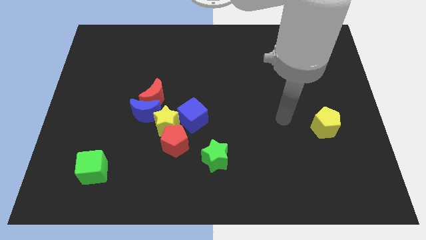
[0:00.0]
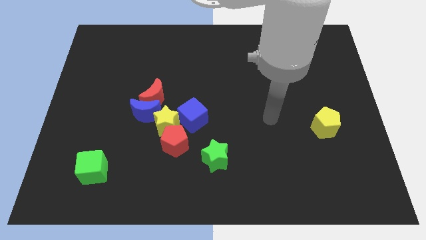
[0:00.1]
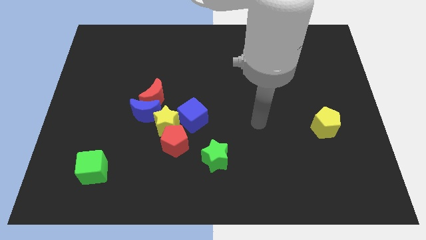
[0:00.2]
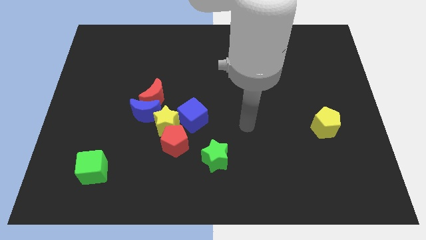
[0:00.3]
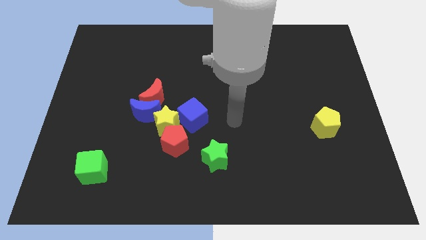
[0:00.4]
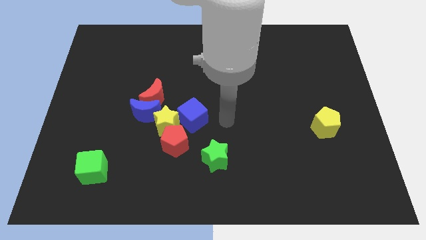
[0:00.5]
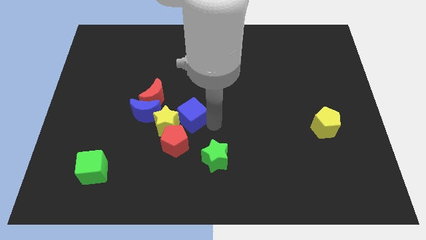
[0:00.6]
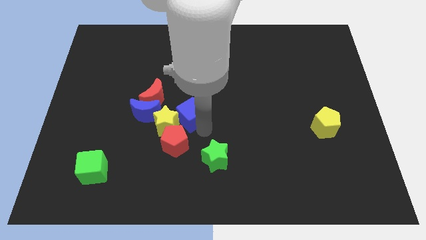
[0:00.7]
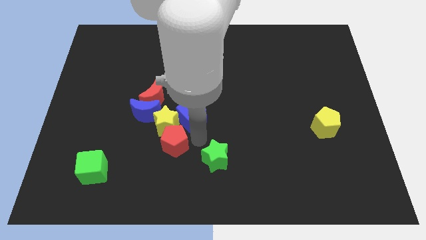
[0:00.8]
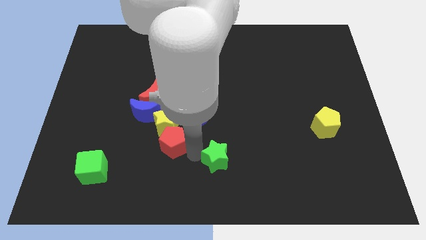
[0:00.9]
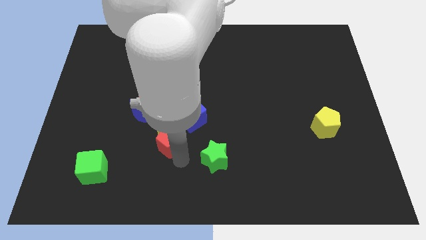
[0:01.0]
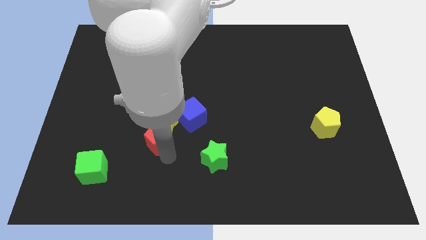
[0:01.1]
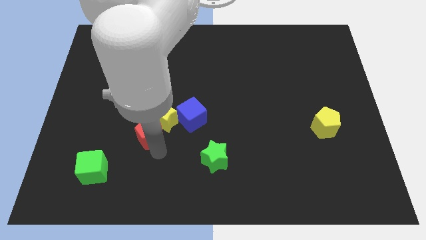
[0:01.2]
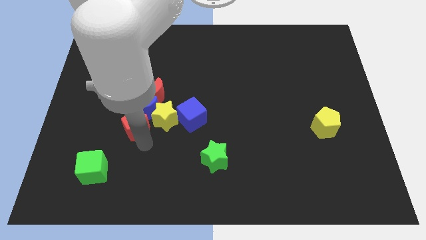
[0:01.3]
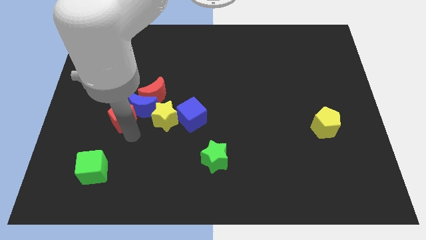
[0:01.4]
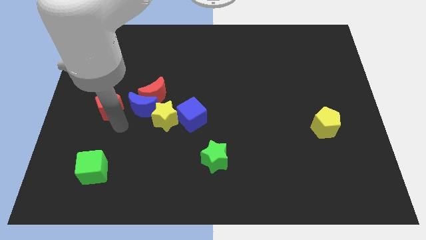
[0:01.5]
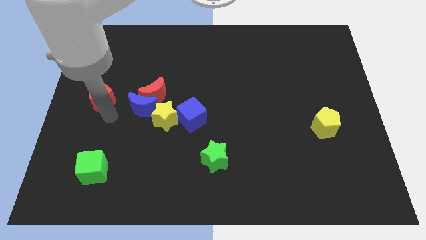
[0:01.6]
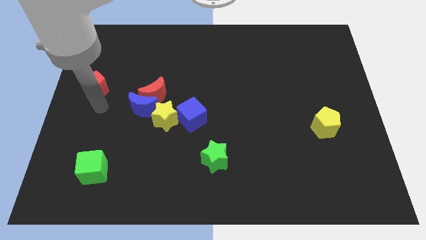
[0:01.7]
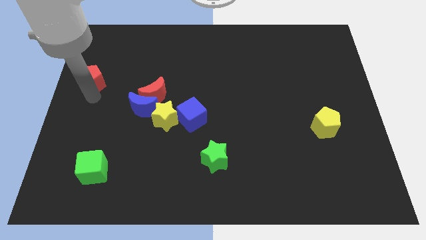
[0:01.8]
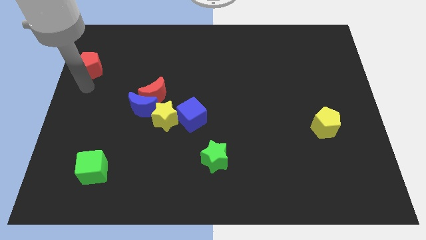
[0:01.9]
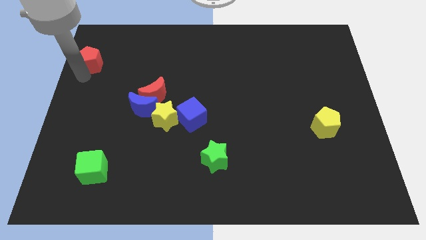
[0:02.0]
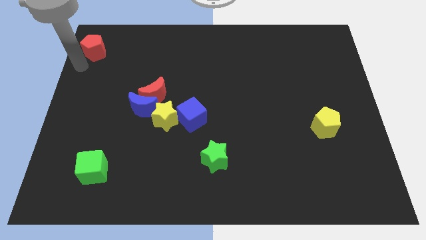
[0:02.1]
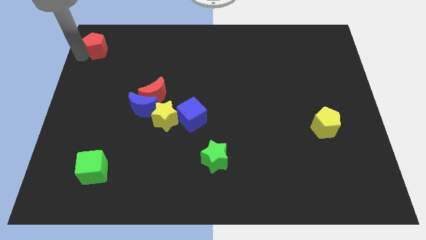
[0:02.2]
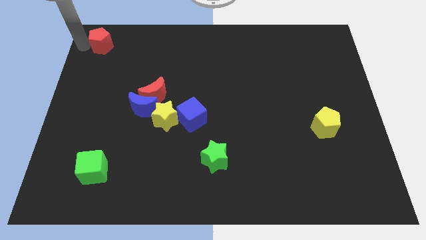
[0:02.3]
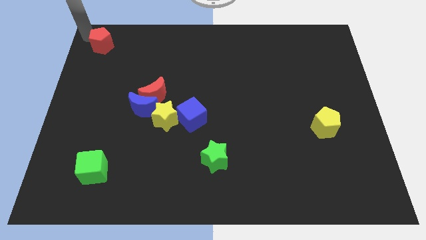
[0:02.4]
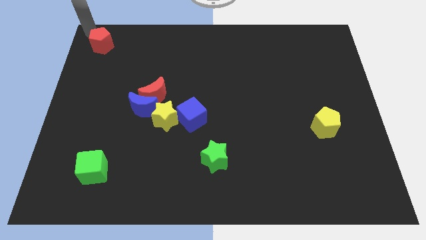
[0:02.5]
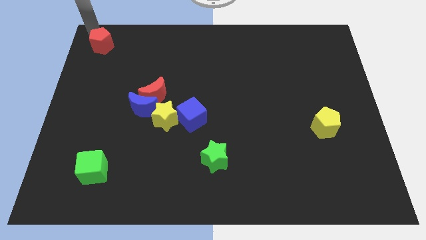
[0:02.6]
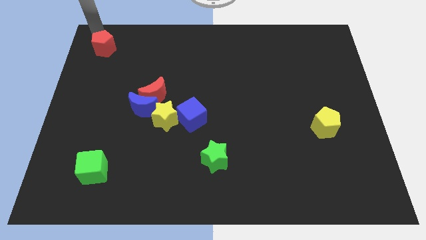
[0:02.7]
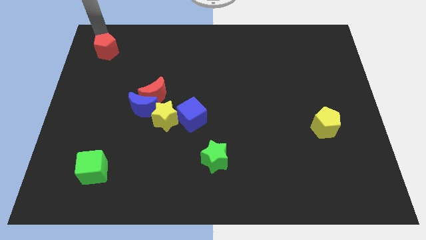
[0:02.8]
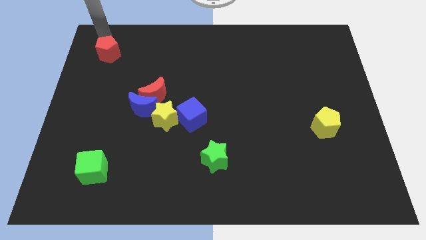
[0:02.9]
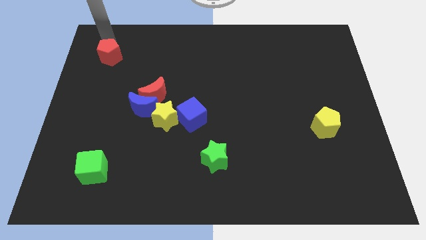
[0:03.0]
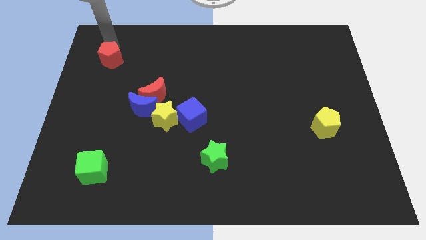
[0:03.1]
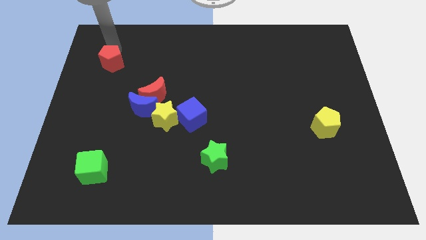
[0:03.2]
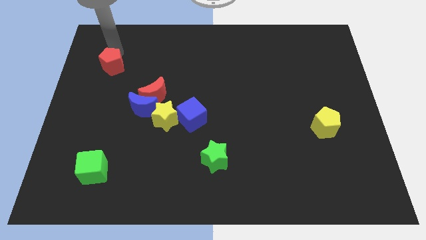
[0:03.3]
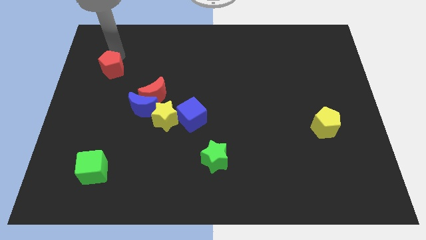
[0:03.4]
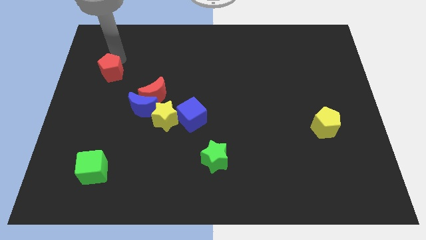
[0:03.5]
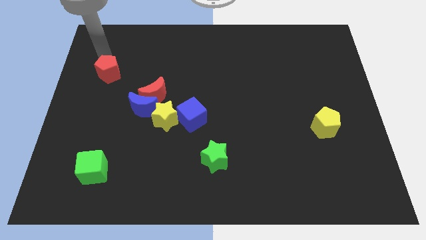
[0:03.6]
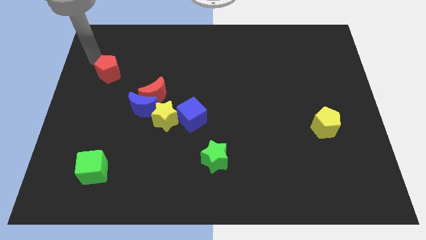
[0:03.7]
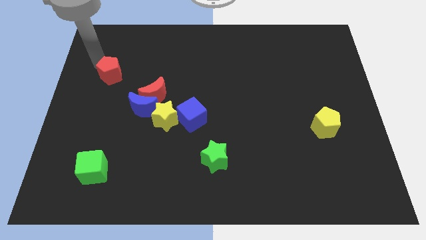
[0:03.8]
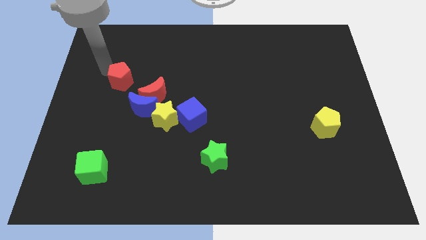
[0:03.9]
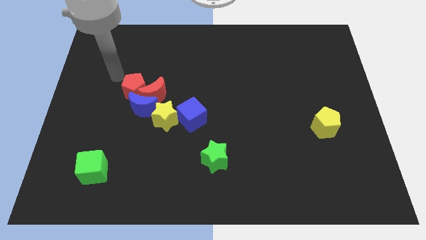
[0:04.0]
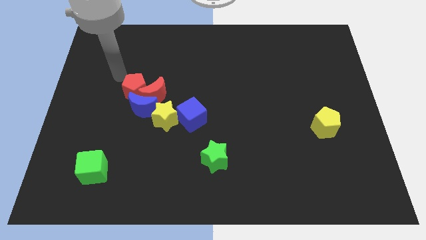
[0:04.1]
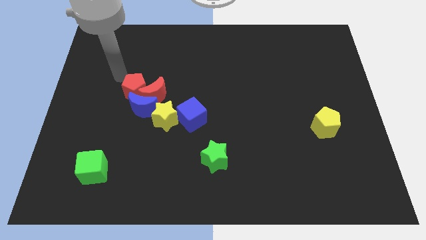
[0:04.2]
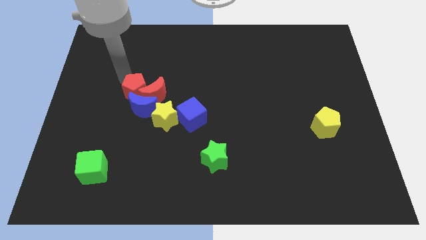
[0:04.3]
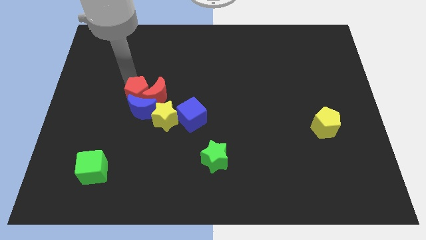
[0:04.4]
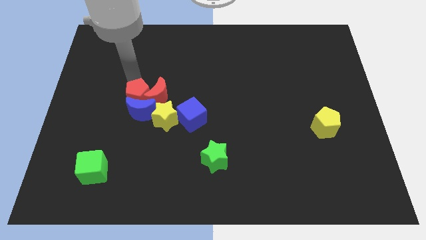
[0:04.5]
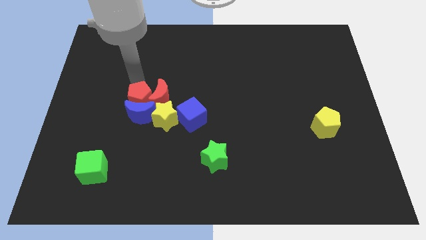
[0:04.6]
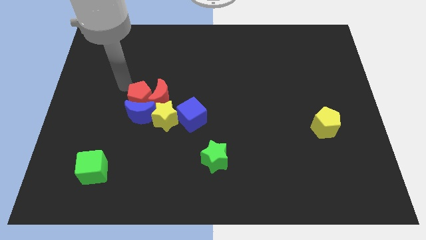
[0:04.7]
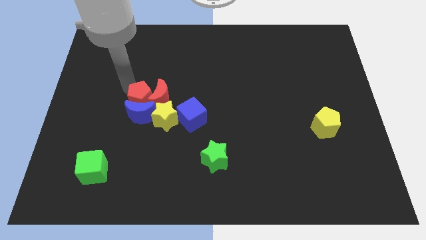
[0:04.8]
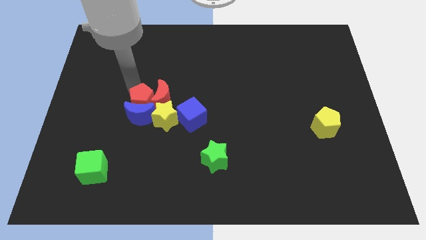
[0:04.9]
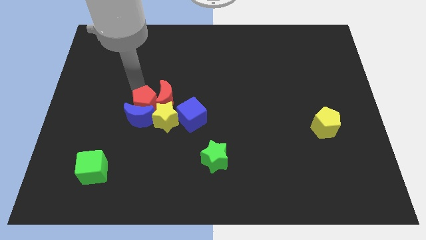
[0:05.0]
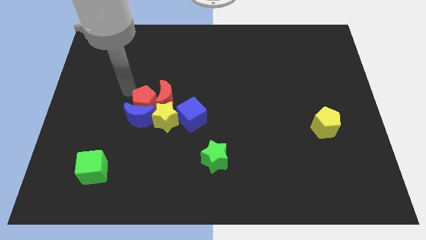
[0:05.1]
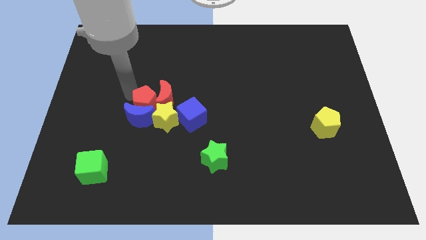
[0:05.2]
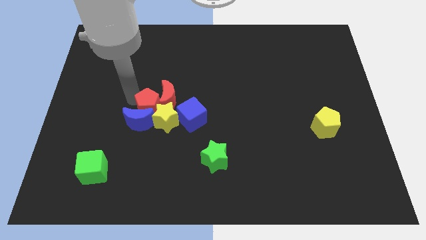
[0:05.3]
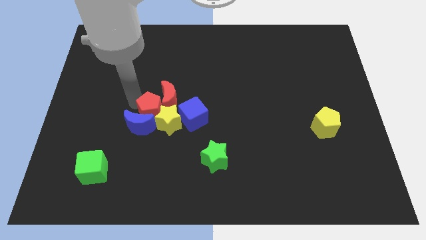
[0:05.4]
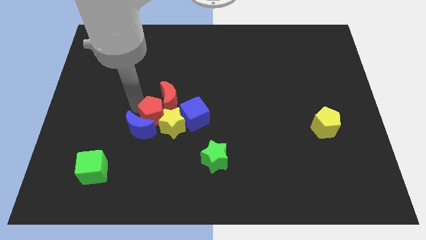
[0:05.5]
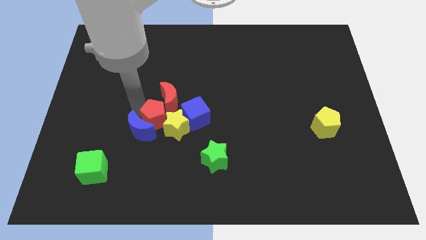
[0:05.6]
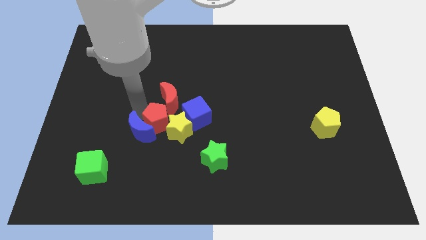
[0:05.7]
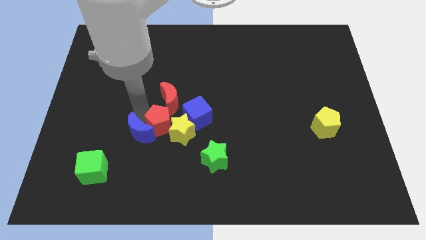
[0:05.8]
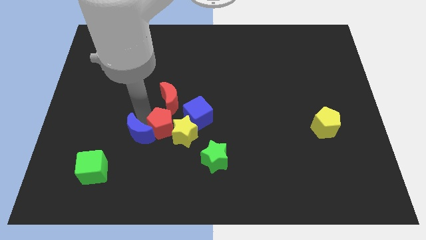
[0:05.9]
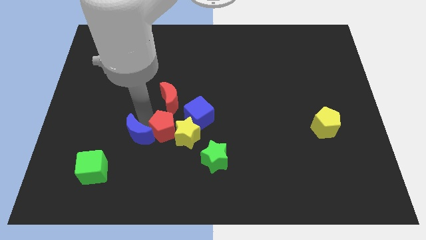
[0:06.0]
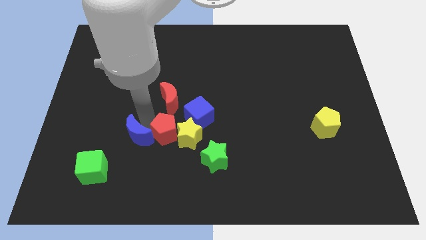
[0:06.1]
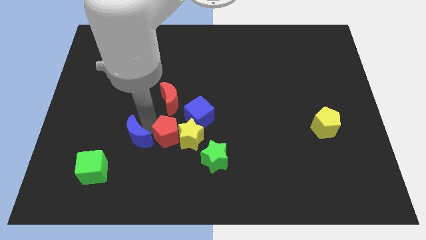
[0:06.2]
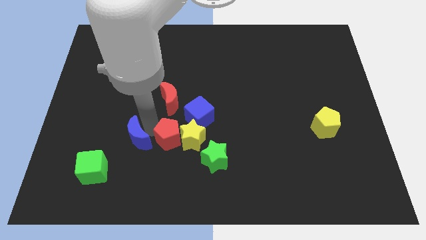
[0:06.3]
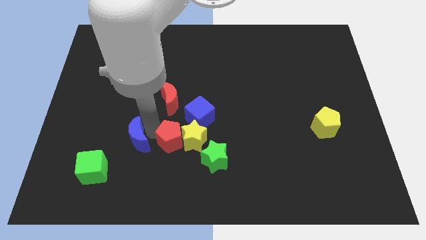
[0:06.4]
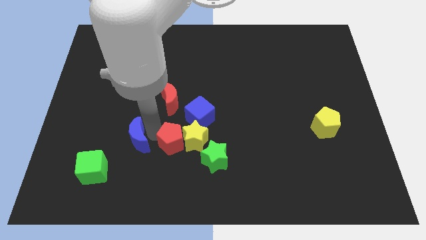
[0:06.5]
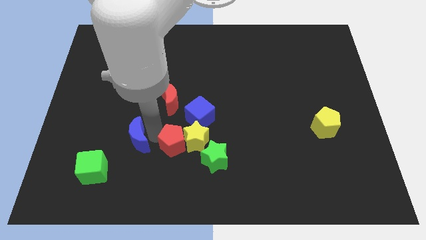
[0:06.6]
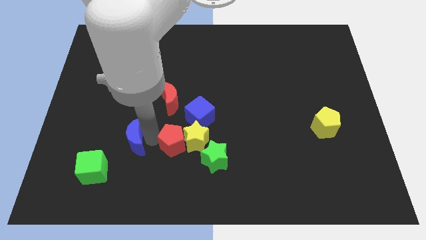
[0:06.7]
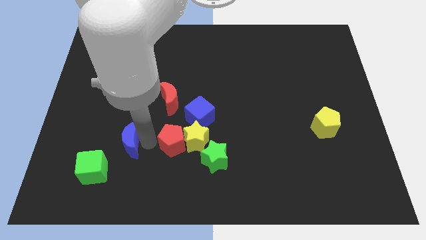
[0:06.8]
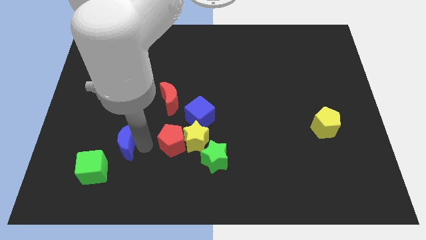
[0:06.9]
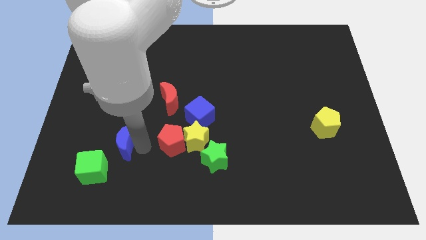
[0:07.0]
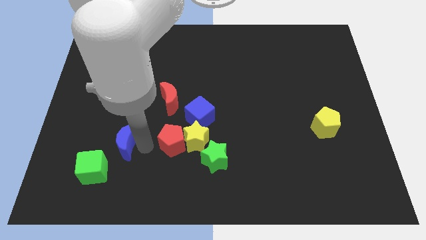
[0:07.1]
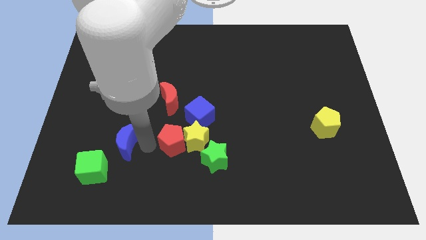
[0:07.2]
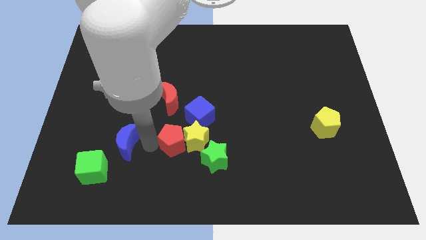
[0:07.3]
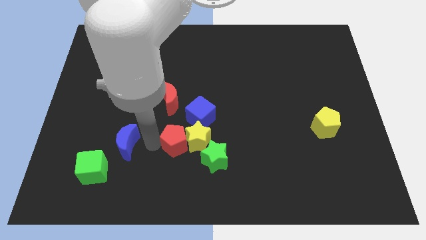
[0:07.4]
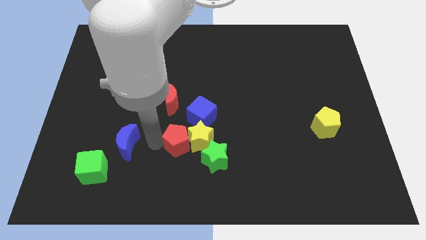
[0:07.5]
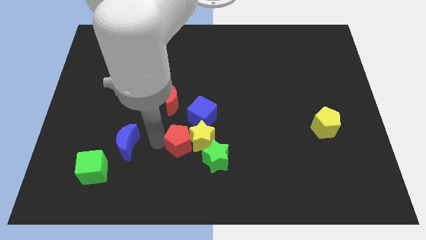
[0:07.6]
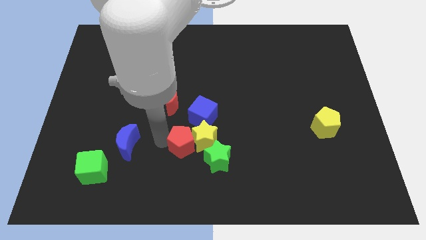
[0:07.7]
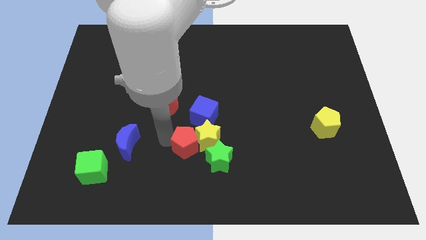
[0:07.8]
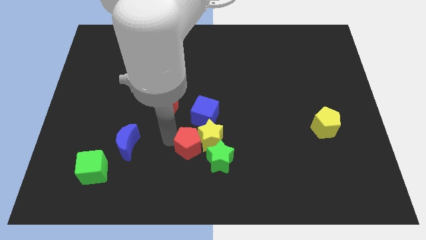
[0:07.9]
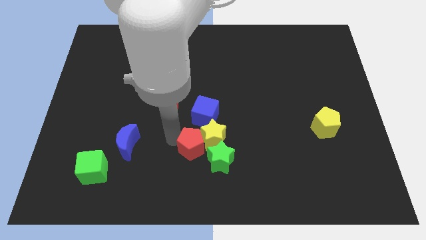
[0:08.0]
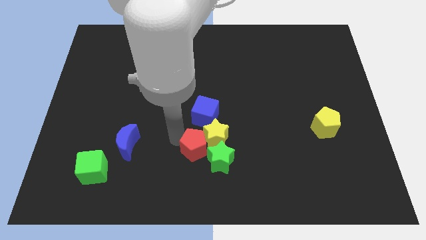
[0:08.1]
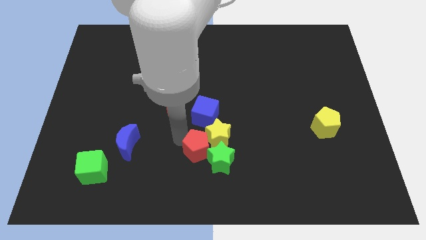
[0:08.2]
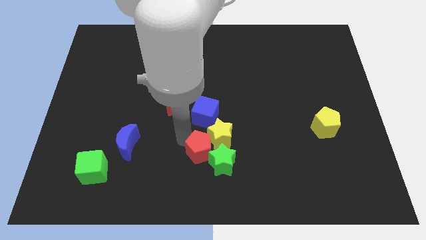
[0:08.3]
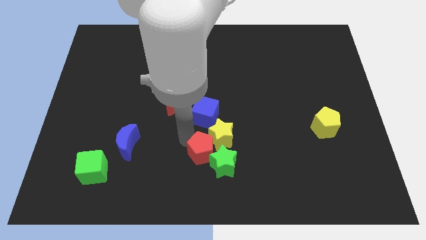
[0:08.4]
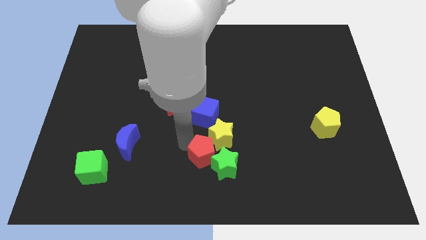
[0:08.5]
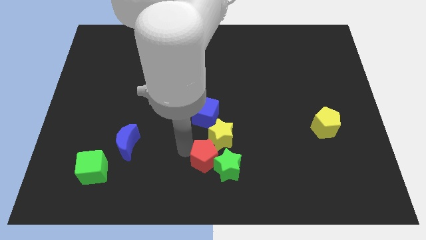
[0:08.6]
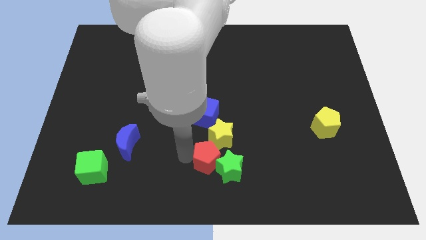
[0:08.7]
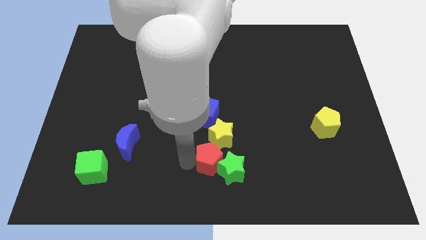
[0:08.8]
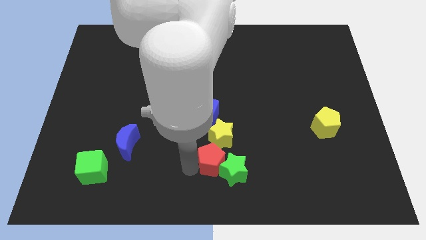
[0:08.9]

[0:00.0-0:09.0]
slide the red pentagon somewhat to the right
